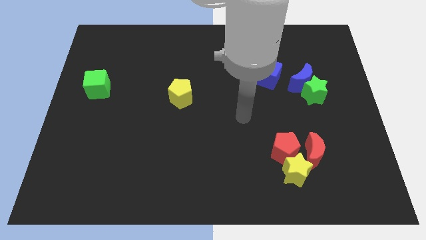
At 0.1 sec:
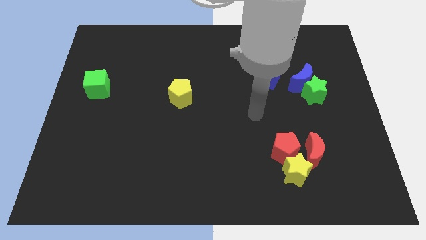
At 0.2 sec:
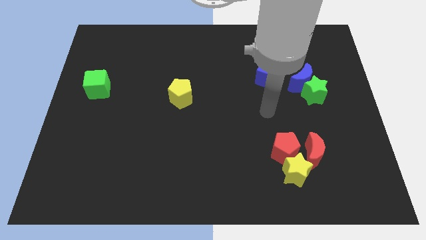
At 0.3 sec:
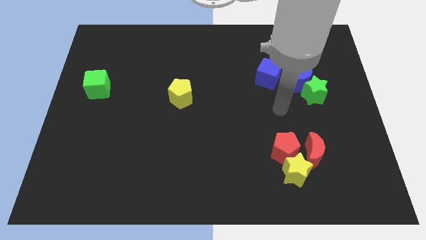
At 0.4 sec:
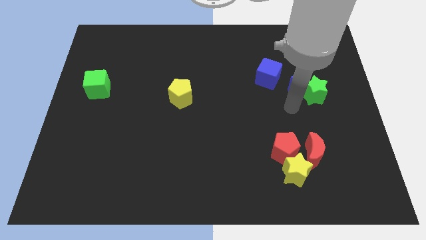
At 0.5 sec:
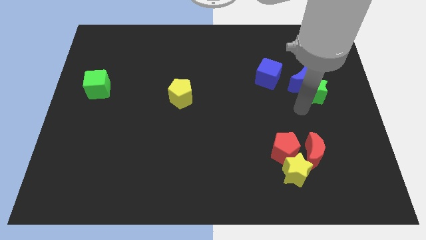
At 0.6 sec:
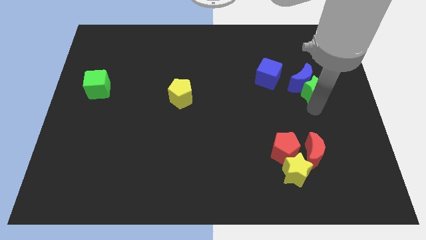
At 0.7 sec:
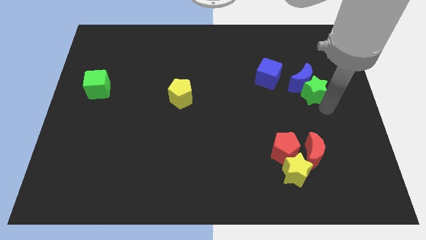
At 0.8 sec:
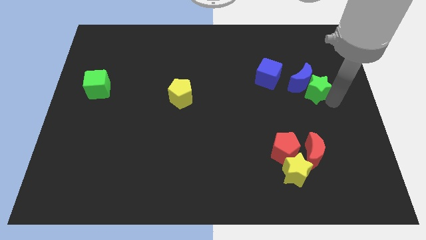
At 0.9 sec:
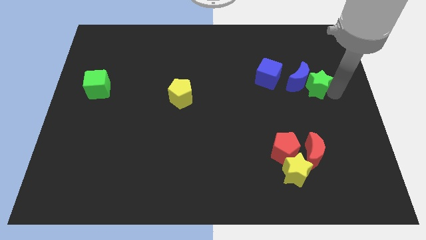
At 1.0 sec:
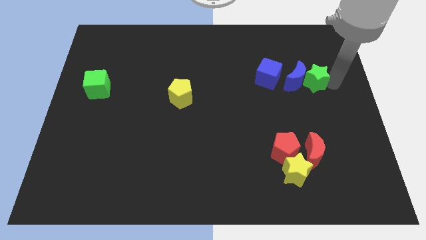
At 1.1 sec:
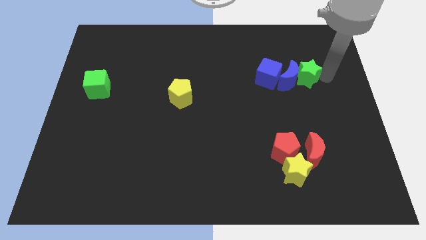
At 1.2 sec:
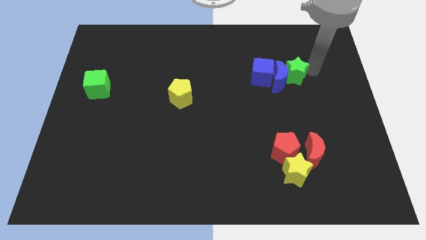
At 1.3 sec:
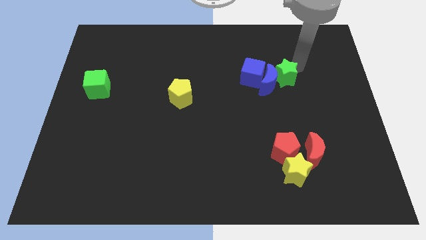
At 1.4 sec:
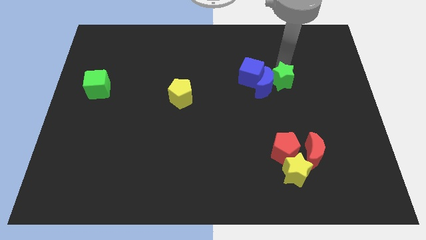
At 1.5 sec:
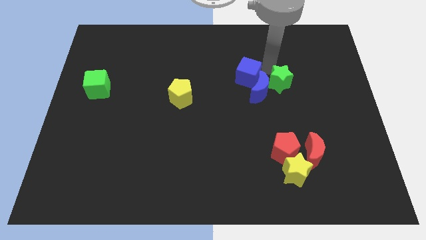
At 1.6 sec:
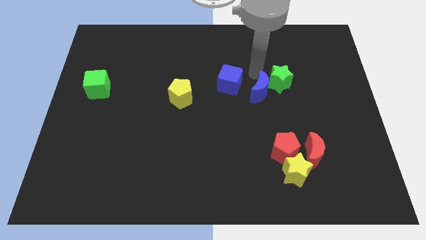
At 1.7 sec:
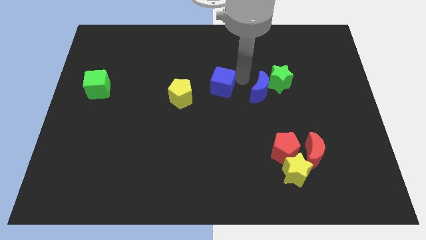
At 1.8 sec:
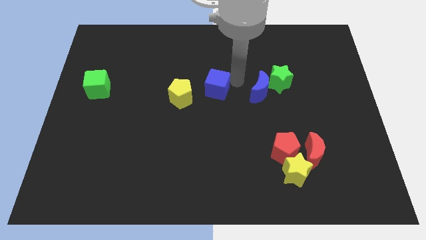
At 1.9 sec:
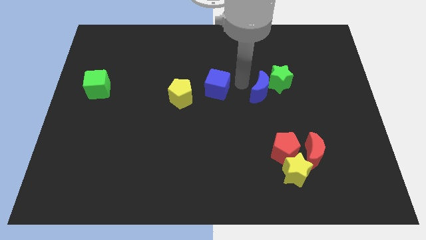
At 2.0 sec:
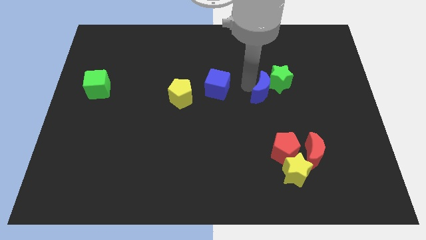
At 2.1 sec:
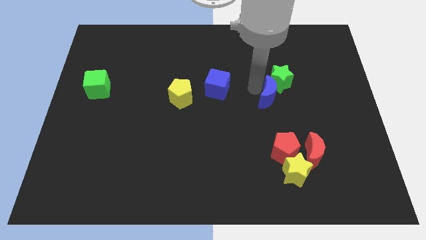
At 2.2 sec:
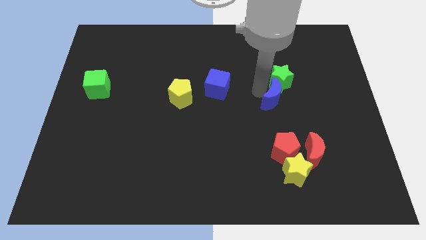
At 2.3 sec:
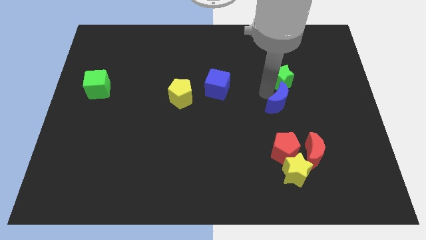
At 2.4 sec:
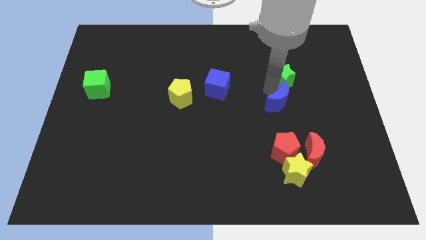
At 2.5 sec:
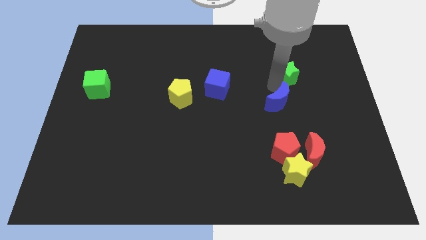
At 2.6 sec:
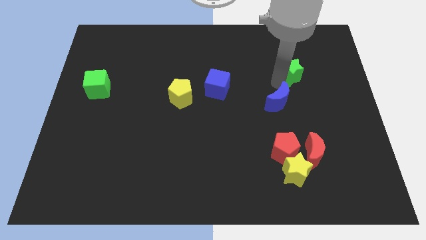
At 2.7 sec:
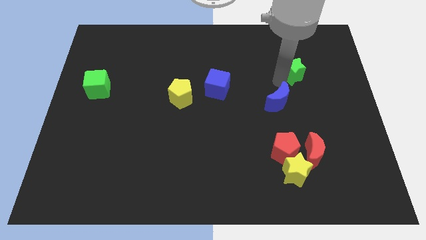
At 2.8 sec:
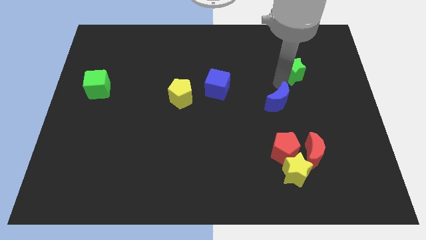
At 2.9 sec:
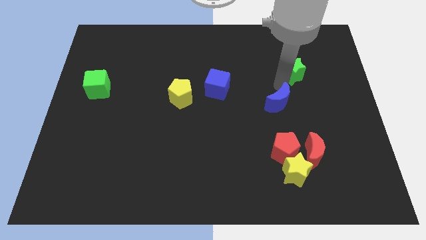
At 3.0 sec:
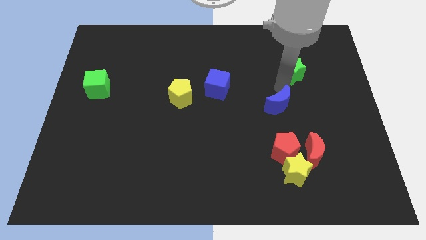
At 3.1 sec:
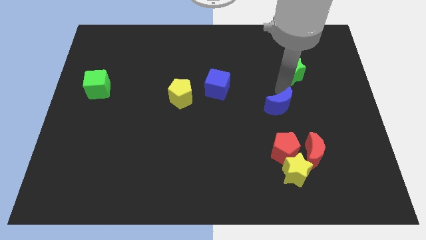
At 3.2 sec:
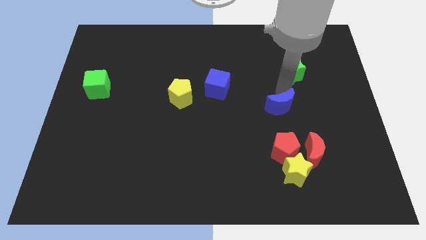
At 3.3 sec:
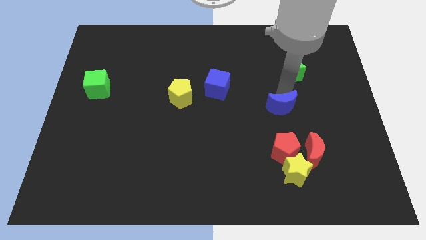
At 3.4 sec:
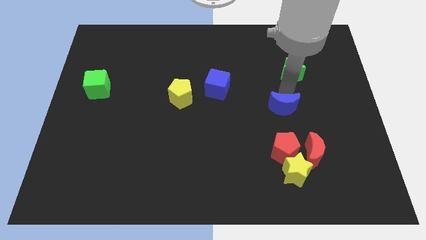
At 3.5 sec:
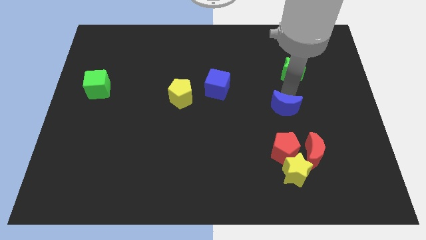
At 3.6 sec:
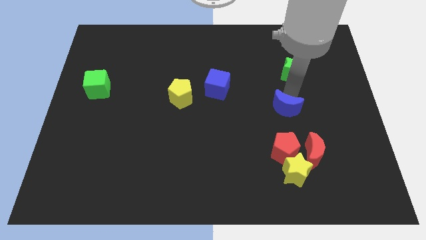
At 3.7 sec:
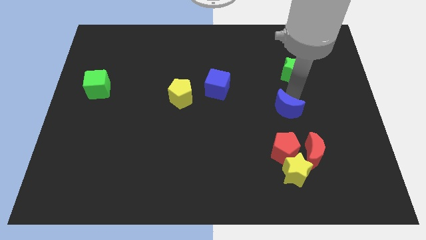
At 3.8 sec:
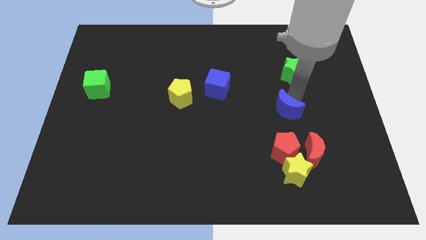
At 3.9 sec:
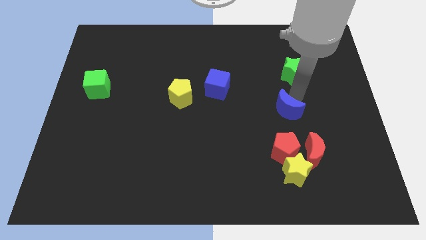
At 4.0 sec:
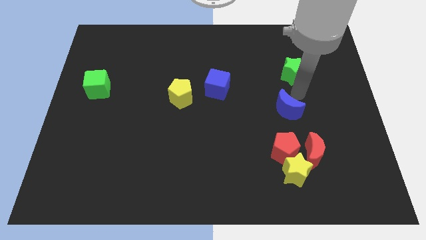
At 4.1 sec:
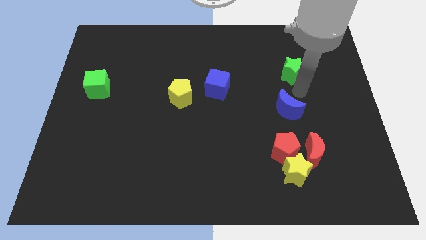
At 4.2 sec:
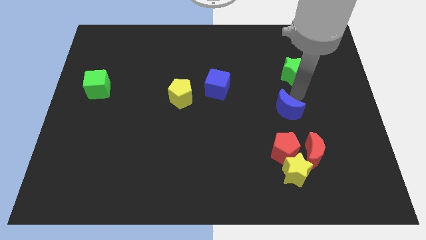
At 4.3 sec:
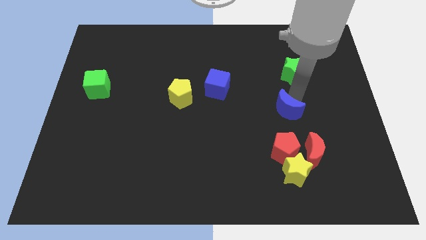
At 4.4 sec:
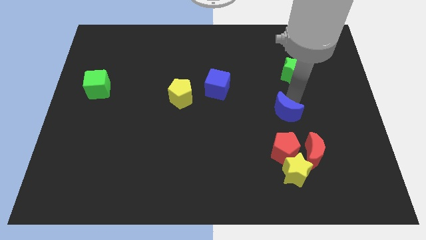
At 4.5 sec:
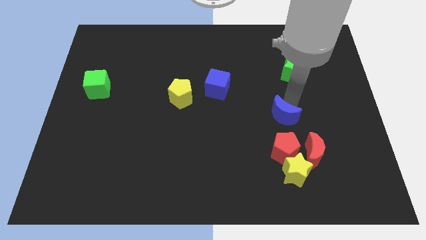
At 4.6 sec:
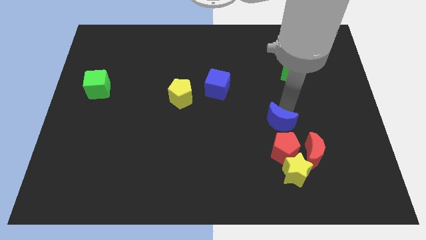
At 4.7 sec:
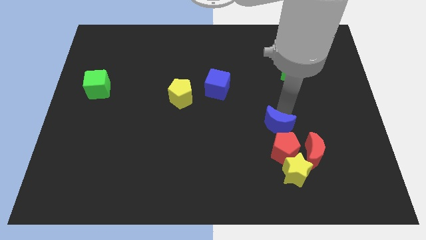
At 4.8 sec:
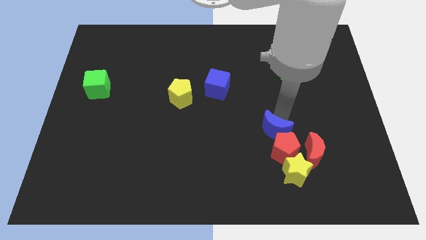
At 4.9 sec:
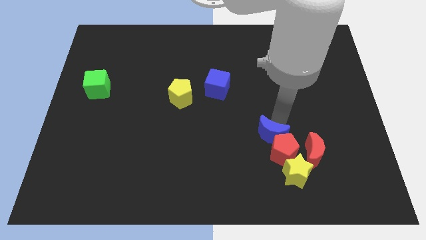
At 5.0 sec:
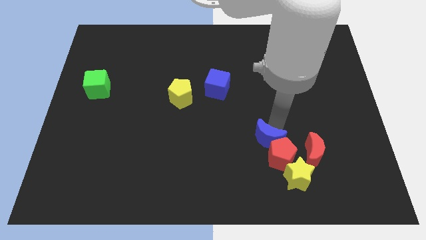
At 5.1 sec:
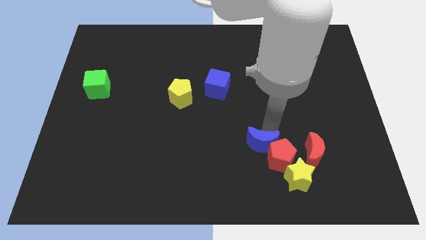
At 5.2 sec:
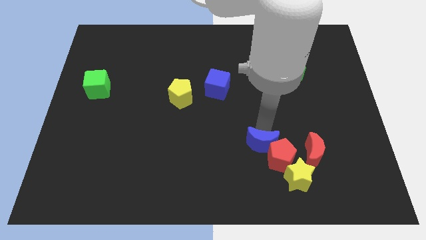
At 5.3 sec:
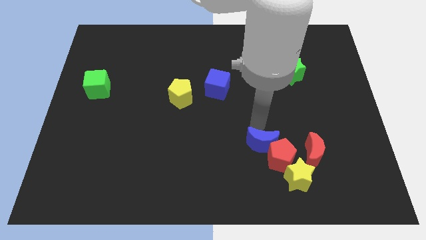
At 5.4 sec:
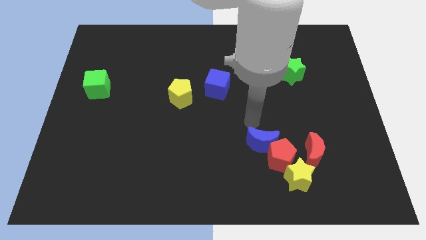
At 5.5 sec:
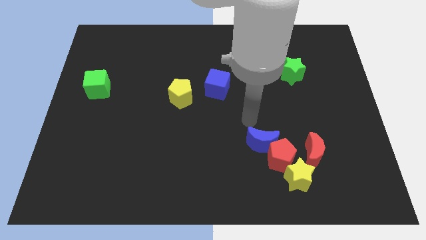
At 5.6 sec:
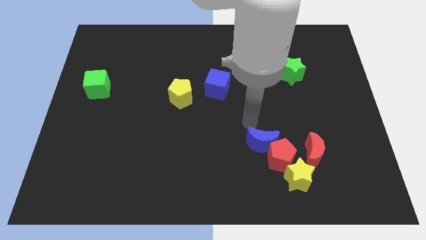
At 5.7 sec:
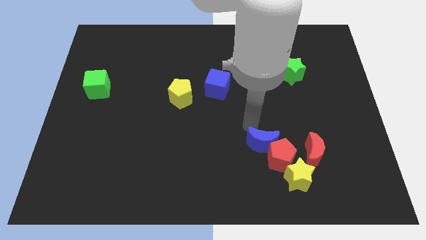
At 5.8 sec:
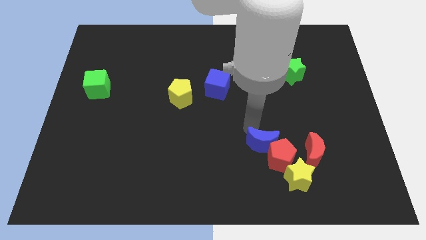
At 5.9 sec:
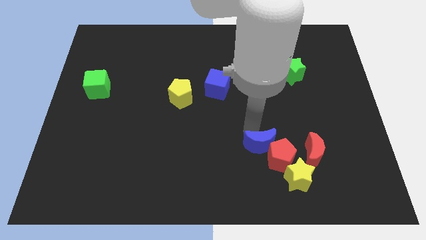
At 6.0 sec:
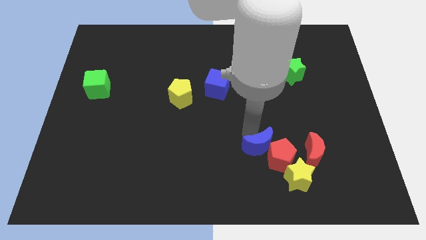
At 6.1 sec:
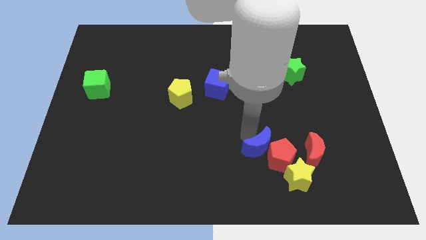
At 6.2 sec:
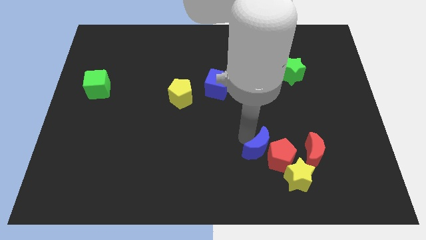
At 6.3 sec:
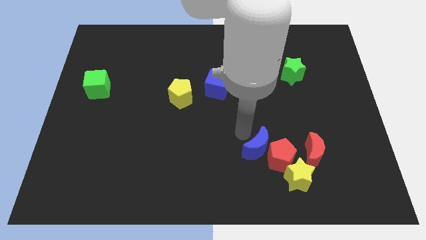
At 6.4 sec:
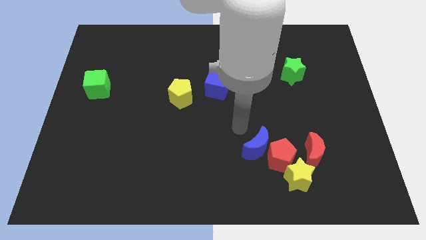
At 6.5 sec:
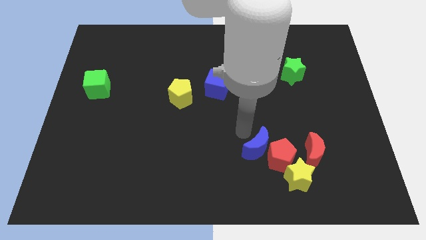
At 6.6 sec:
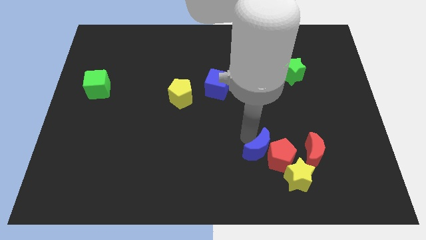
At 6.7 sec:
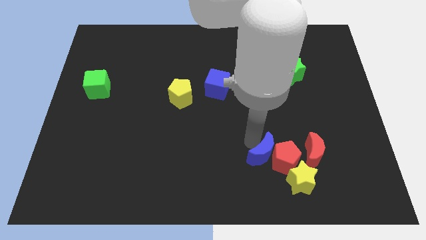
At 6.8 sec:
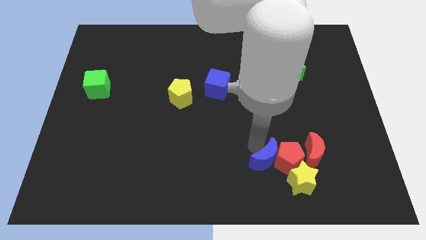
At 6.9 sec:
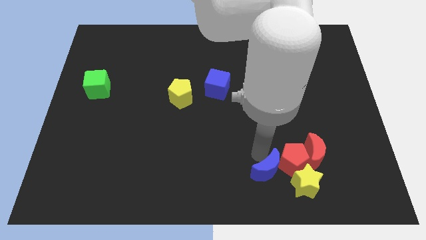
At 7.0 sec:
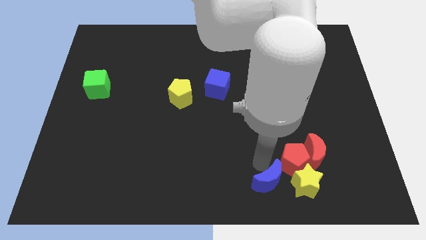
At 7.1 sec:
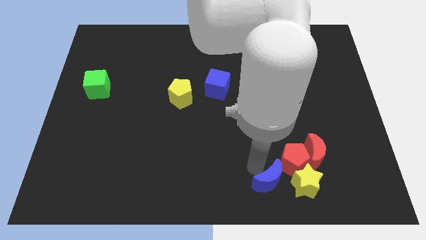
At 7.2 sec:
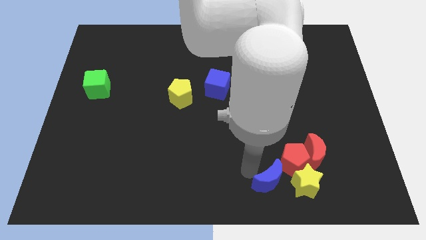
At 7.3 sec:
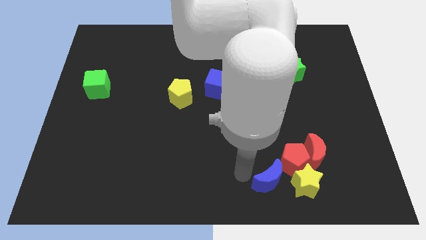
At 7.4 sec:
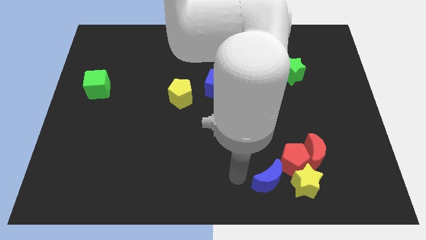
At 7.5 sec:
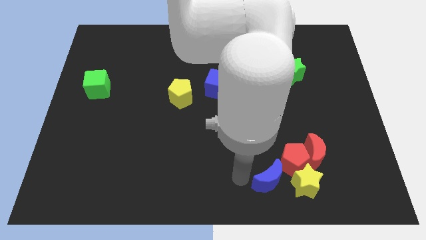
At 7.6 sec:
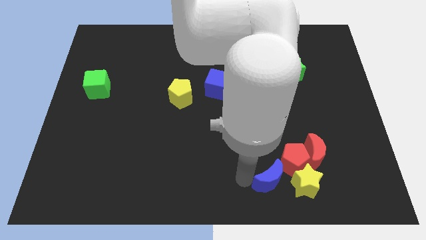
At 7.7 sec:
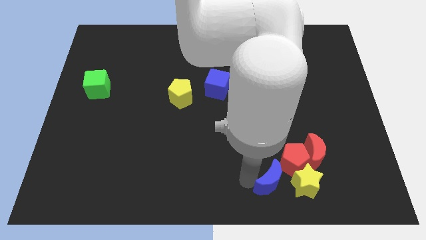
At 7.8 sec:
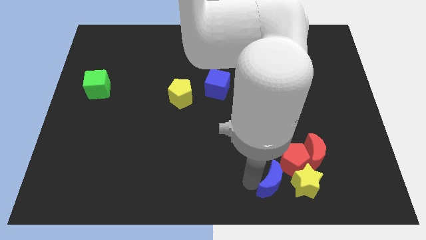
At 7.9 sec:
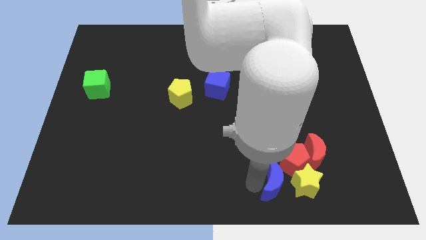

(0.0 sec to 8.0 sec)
move the blue moon towards the yellow star
